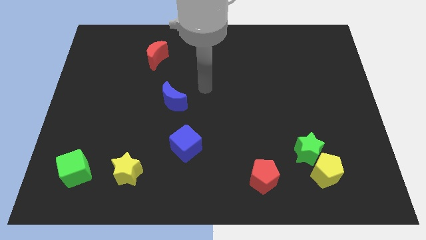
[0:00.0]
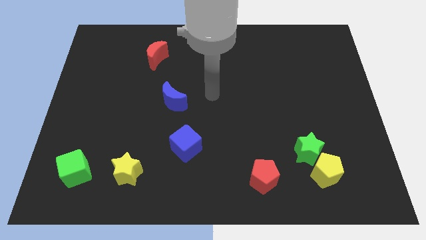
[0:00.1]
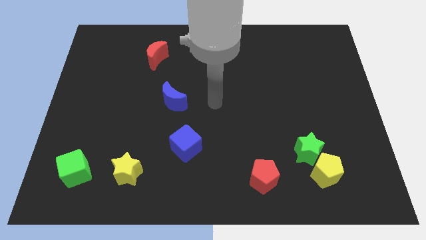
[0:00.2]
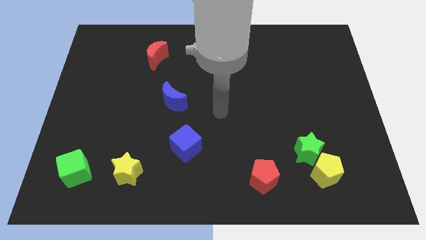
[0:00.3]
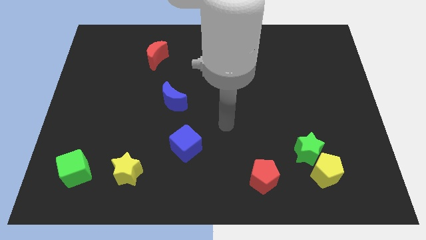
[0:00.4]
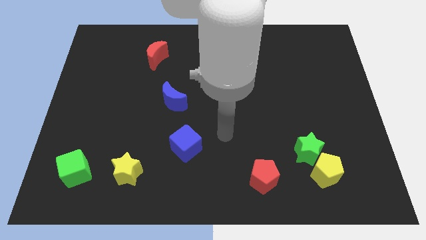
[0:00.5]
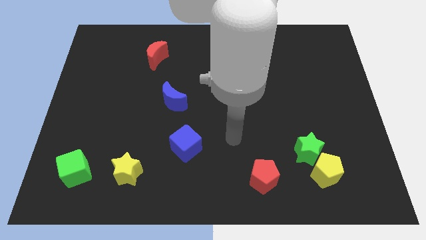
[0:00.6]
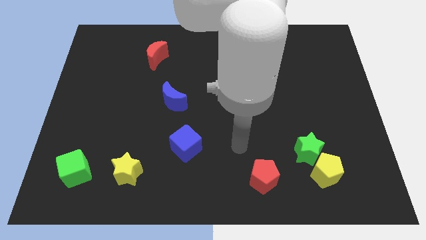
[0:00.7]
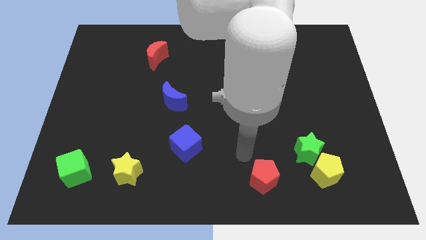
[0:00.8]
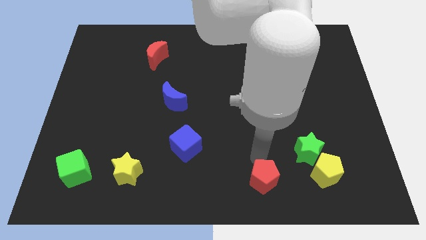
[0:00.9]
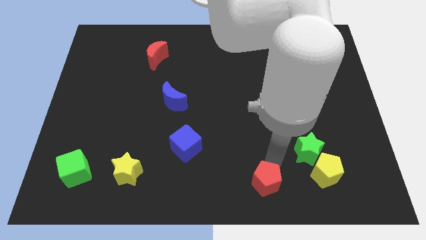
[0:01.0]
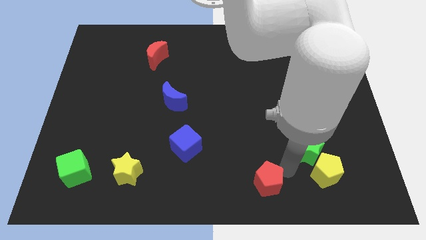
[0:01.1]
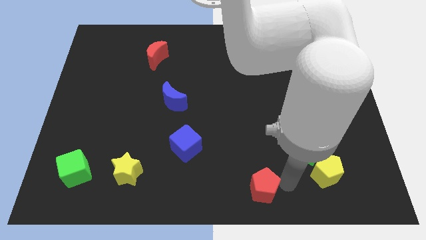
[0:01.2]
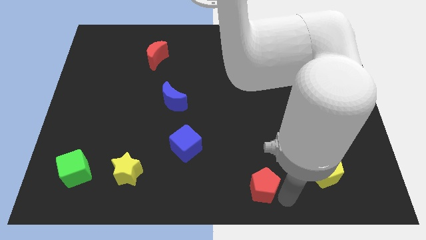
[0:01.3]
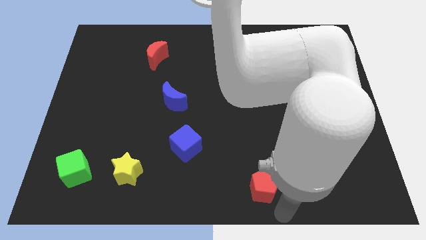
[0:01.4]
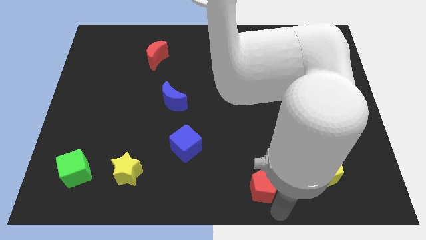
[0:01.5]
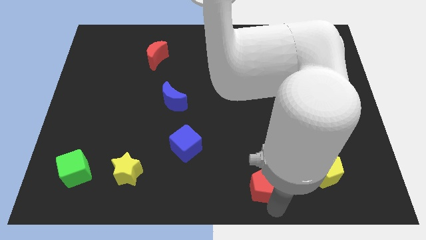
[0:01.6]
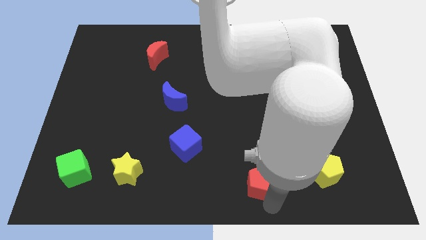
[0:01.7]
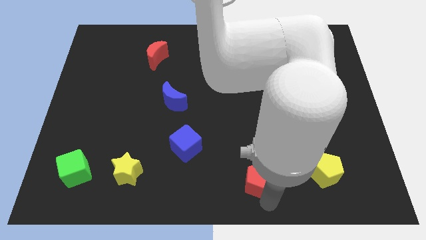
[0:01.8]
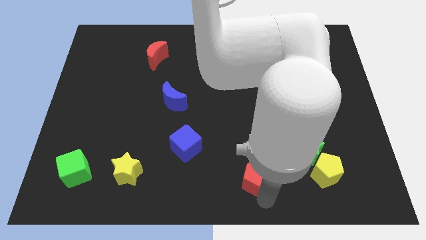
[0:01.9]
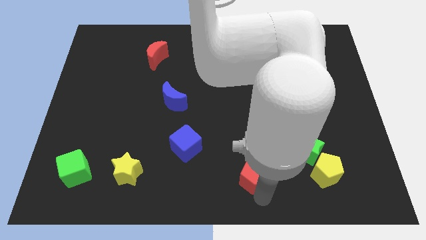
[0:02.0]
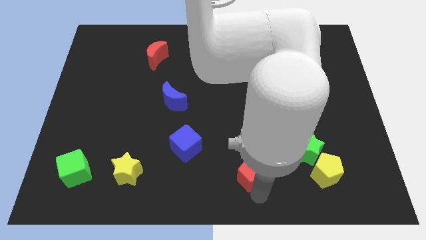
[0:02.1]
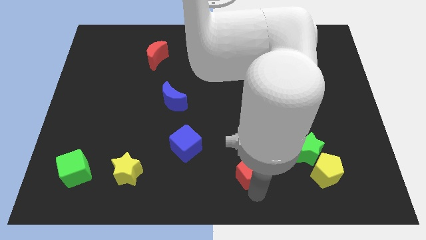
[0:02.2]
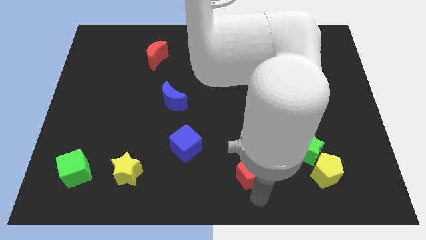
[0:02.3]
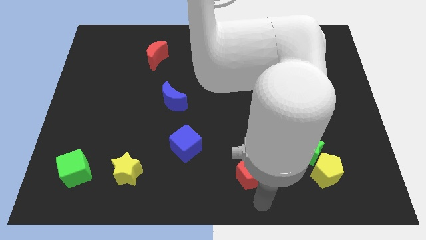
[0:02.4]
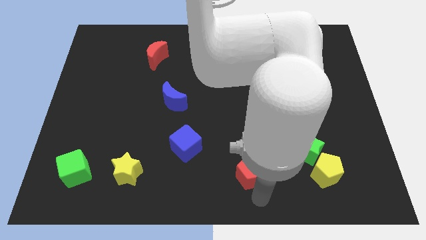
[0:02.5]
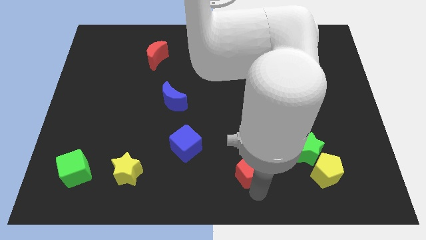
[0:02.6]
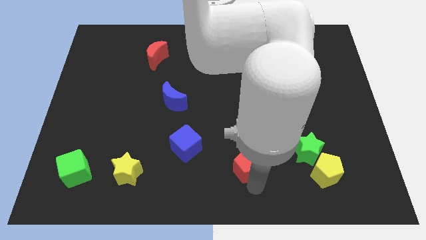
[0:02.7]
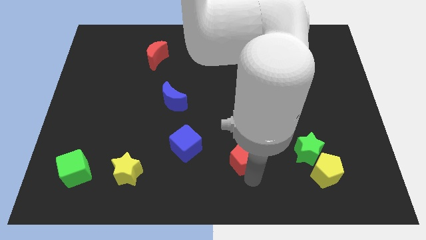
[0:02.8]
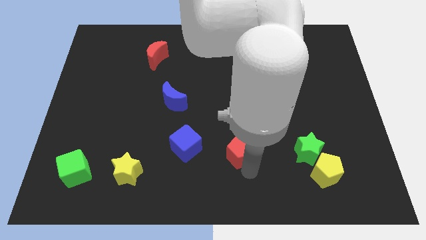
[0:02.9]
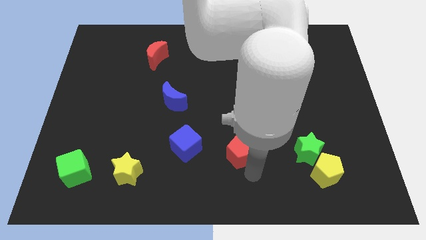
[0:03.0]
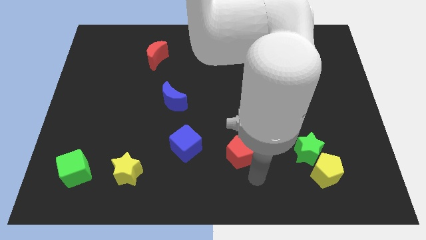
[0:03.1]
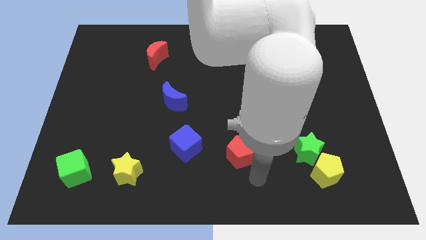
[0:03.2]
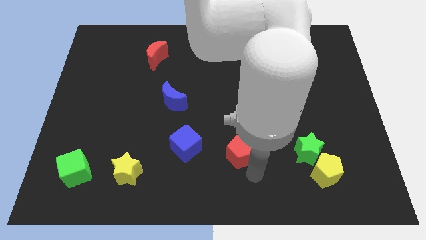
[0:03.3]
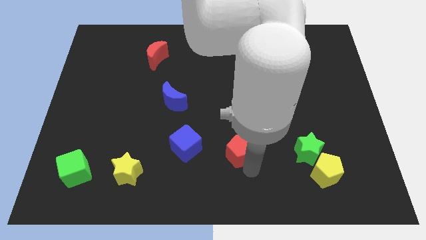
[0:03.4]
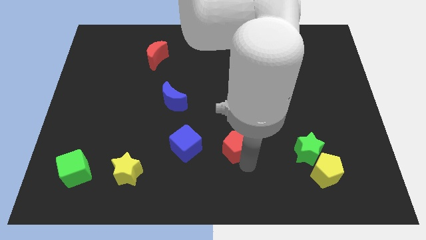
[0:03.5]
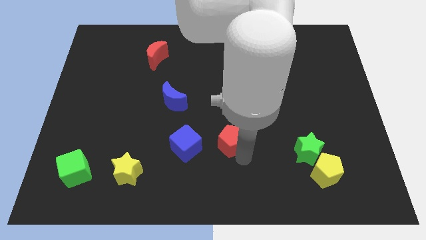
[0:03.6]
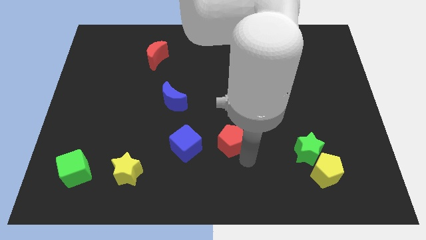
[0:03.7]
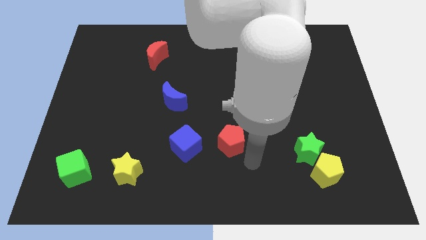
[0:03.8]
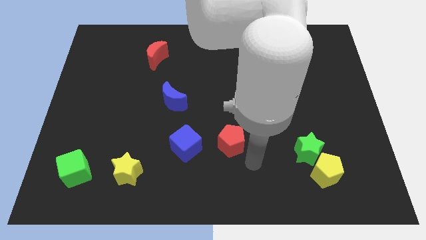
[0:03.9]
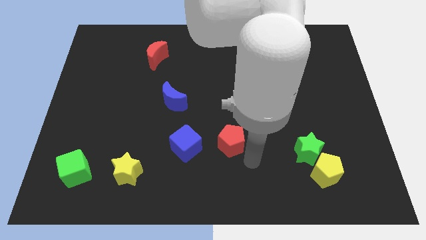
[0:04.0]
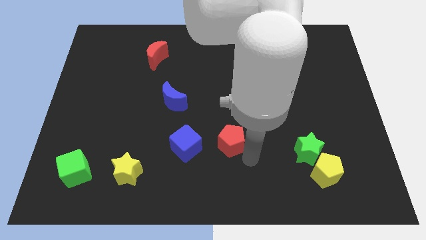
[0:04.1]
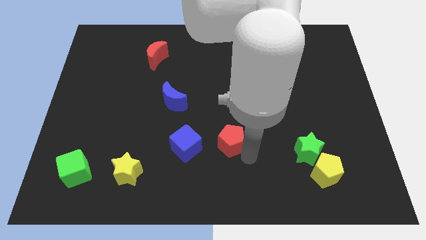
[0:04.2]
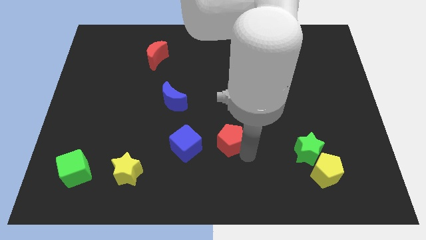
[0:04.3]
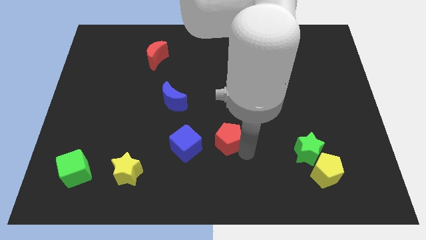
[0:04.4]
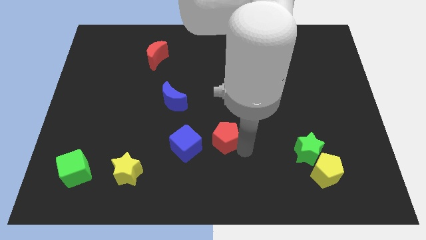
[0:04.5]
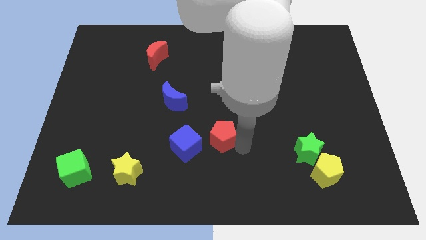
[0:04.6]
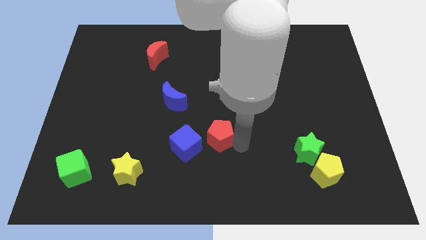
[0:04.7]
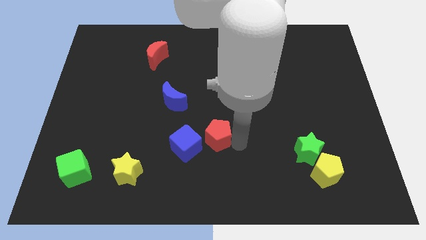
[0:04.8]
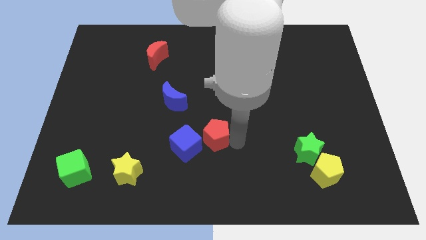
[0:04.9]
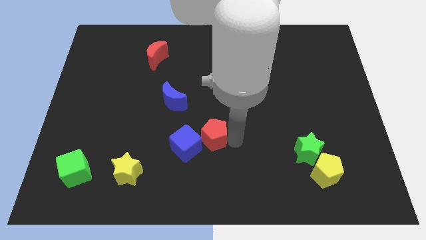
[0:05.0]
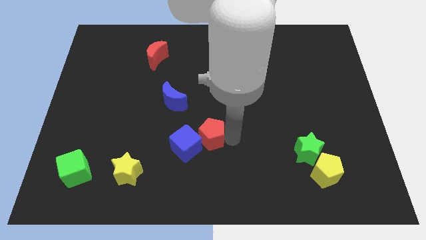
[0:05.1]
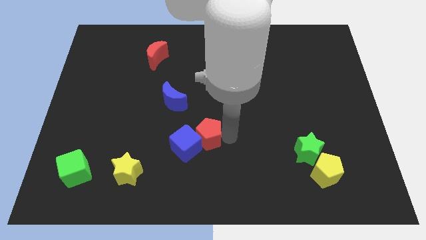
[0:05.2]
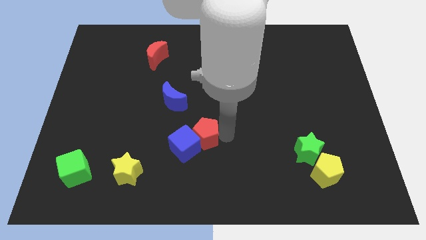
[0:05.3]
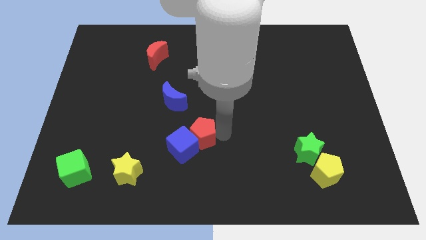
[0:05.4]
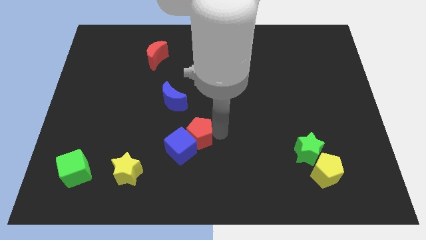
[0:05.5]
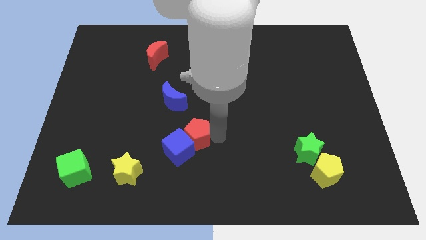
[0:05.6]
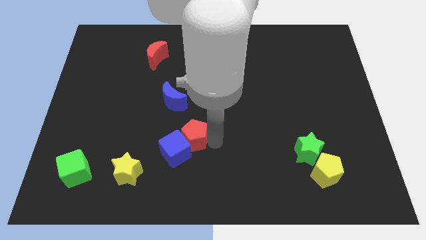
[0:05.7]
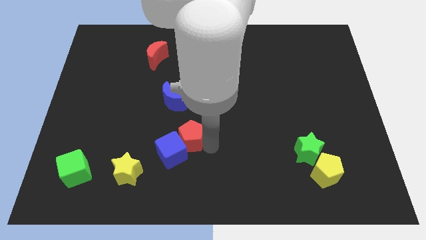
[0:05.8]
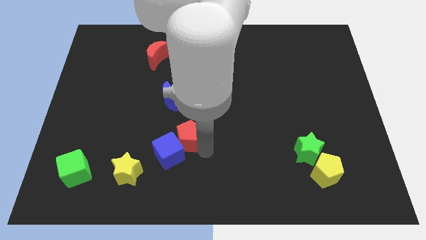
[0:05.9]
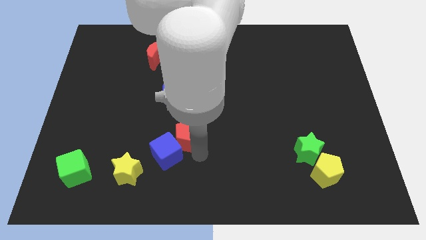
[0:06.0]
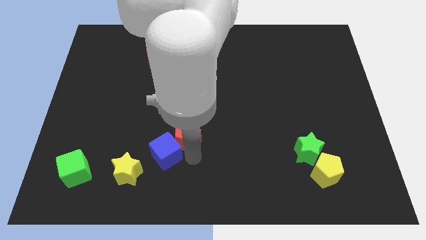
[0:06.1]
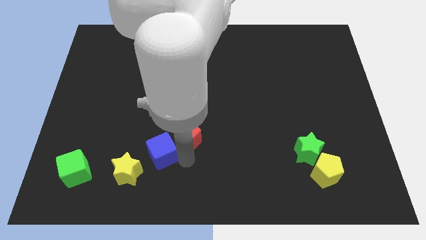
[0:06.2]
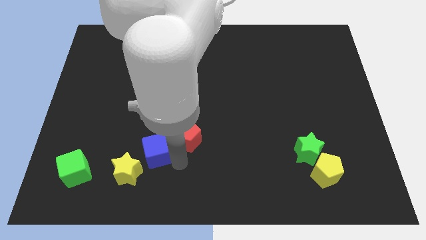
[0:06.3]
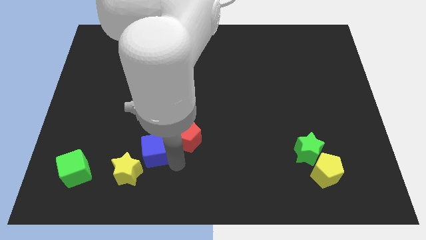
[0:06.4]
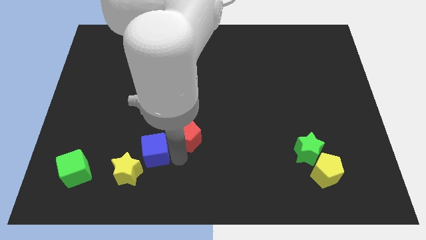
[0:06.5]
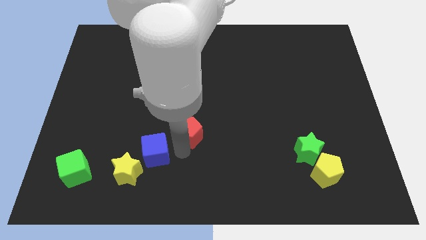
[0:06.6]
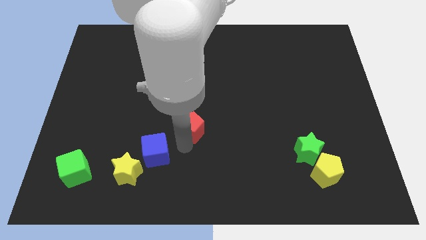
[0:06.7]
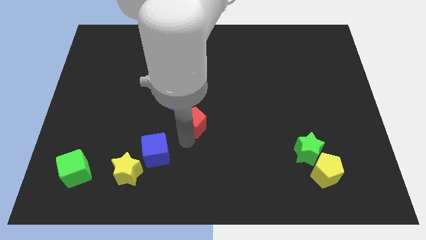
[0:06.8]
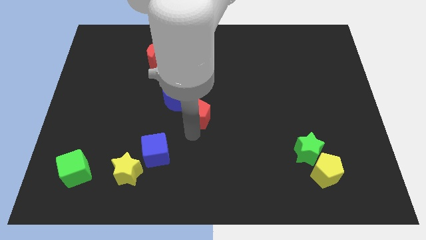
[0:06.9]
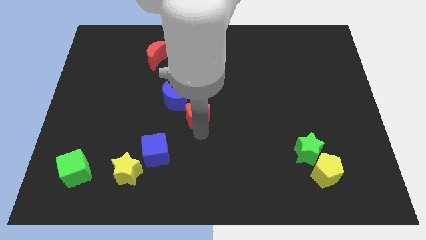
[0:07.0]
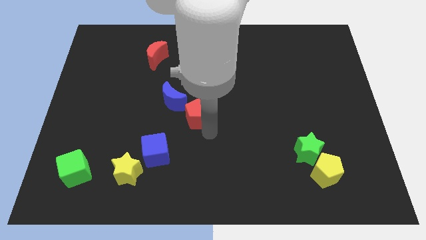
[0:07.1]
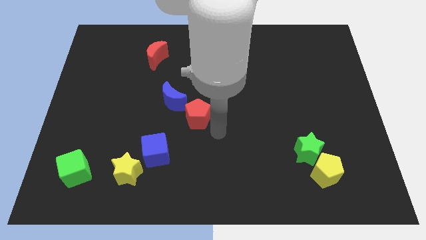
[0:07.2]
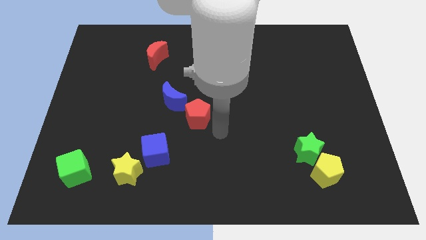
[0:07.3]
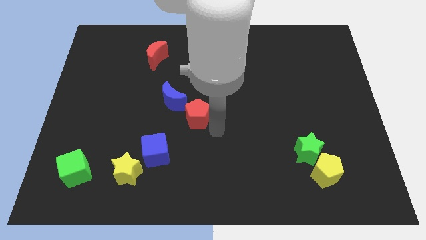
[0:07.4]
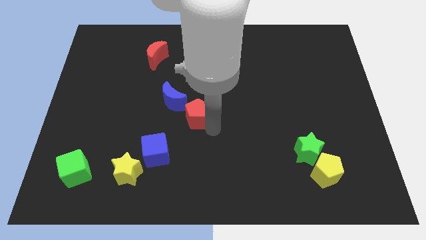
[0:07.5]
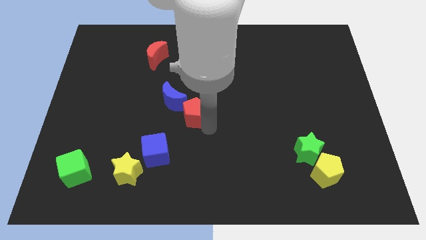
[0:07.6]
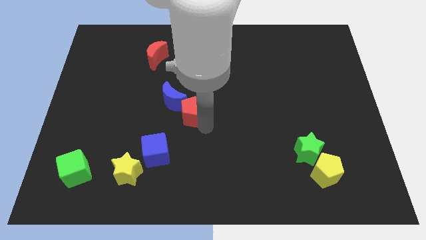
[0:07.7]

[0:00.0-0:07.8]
push the red pentagon to the blue moon

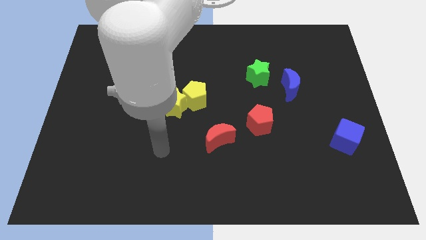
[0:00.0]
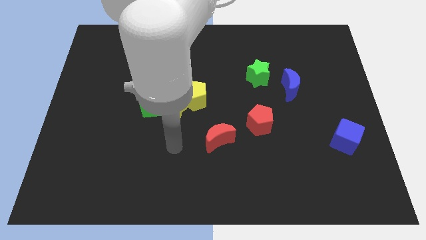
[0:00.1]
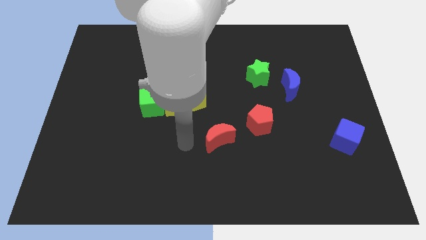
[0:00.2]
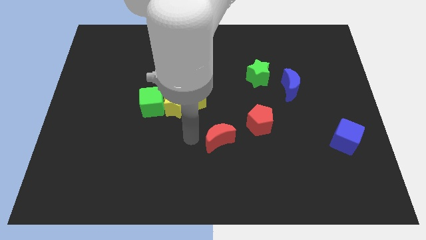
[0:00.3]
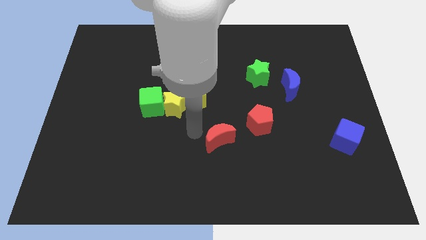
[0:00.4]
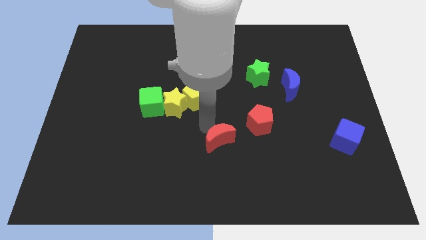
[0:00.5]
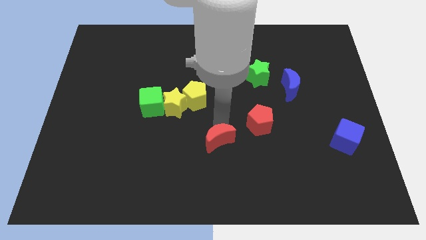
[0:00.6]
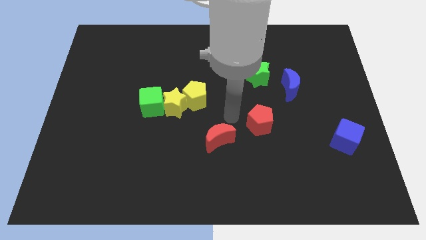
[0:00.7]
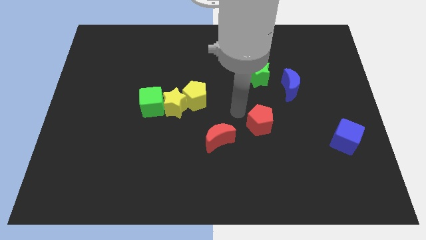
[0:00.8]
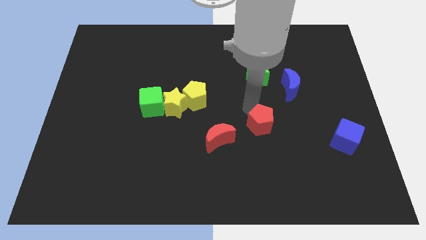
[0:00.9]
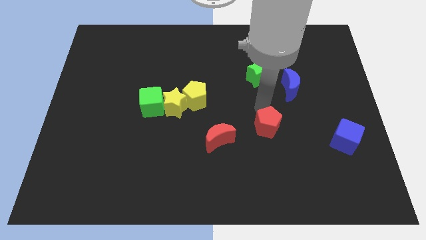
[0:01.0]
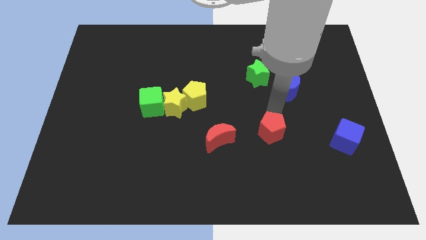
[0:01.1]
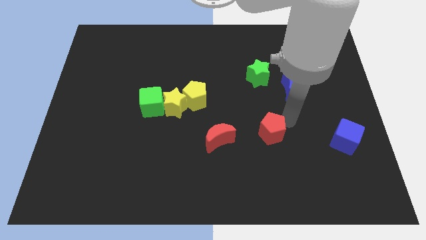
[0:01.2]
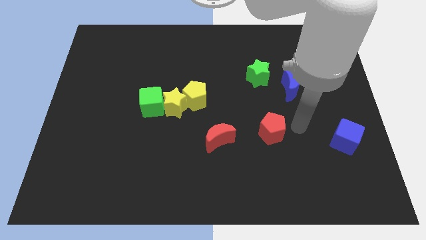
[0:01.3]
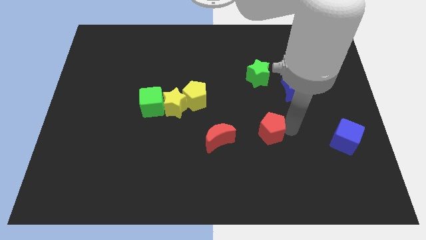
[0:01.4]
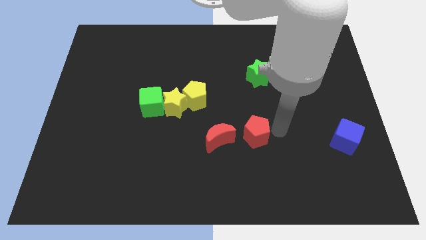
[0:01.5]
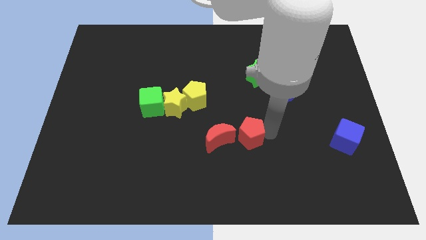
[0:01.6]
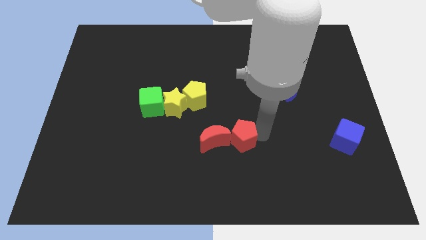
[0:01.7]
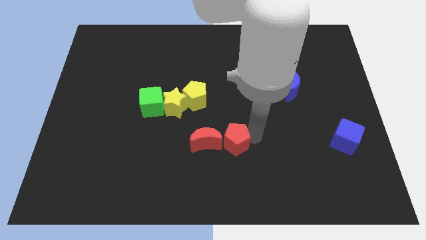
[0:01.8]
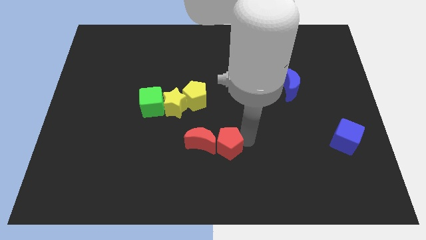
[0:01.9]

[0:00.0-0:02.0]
put the red pentagon to the red moon
